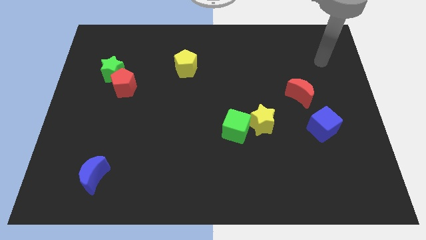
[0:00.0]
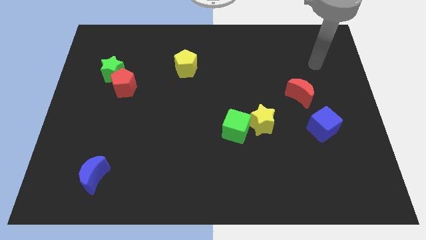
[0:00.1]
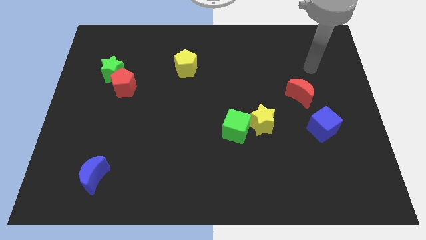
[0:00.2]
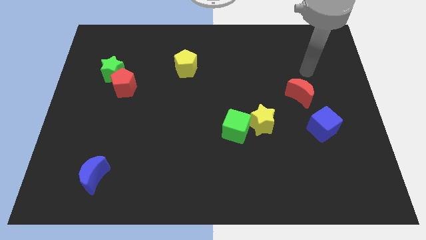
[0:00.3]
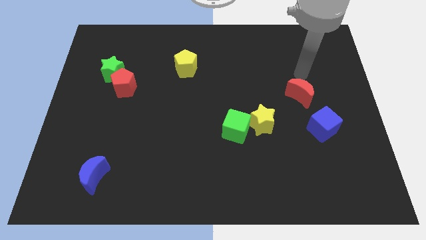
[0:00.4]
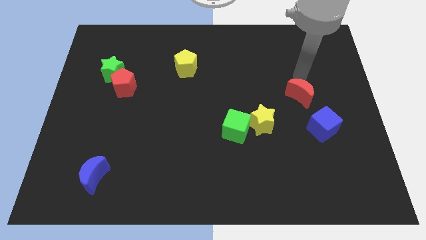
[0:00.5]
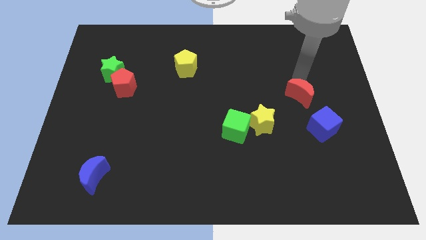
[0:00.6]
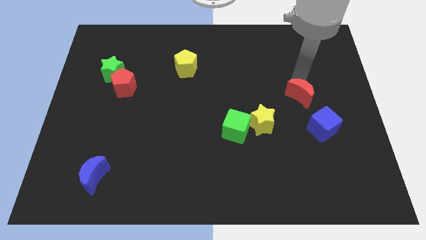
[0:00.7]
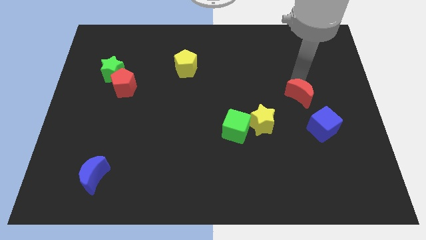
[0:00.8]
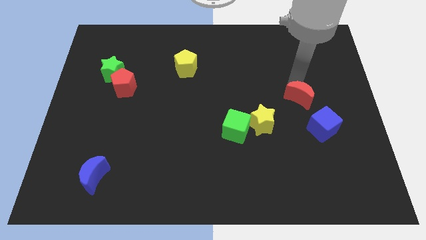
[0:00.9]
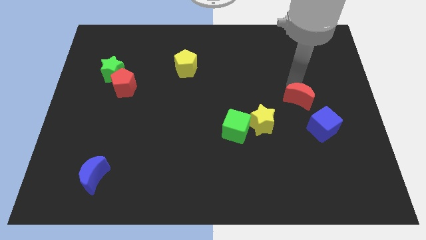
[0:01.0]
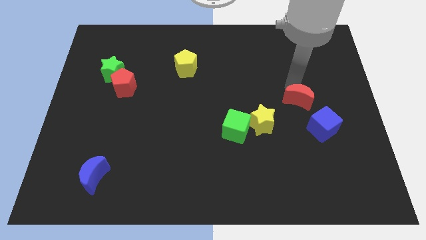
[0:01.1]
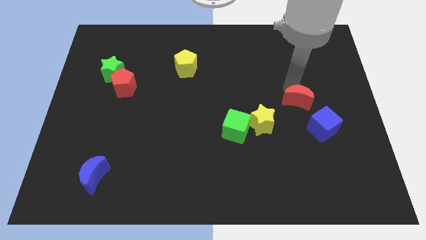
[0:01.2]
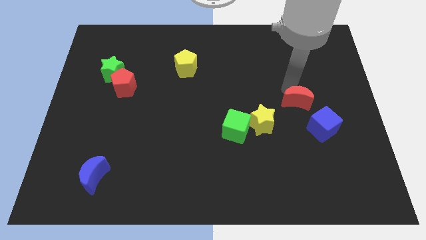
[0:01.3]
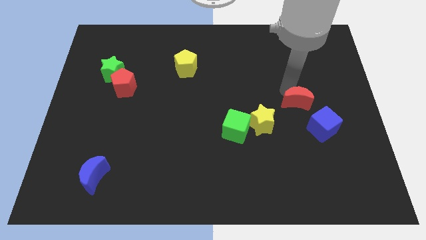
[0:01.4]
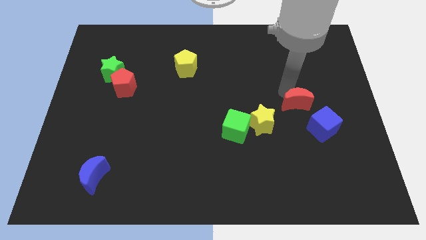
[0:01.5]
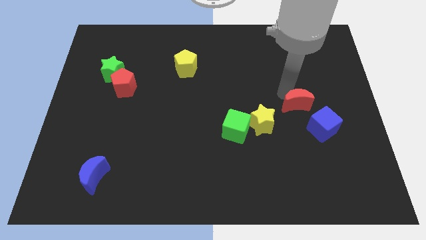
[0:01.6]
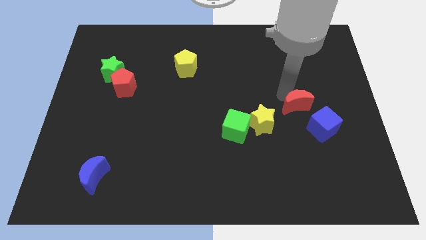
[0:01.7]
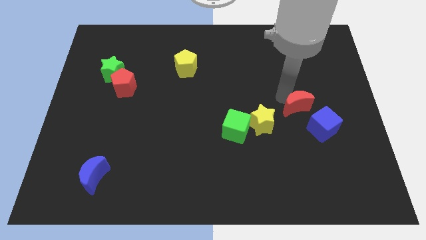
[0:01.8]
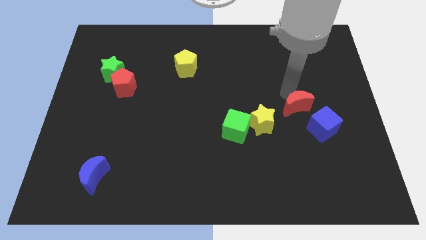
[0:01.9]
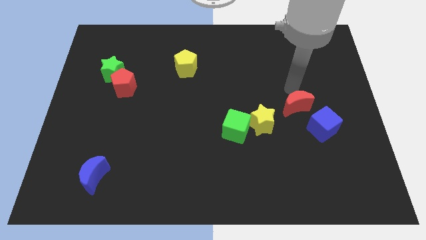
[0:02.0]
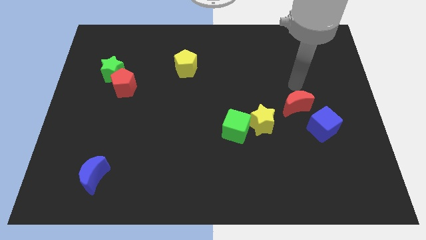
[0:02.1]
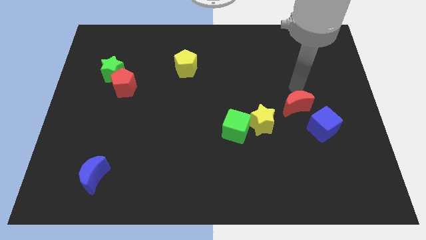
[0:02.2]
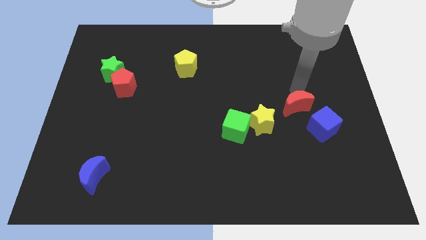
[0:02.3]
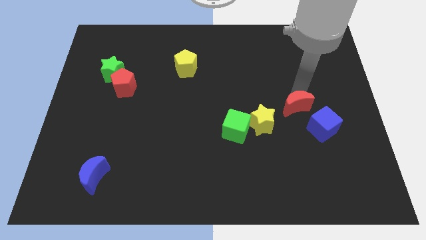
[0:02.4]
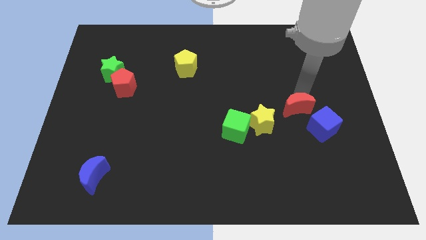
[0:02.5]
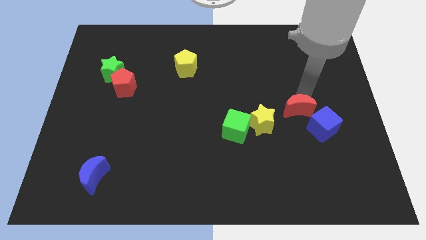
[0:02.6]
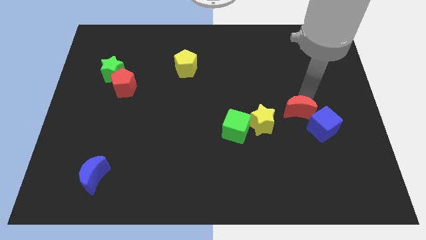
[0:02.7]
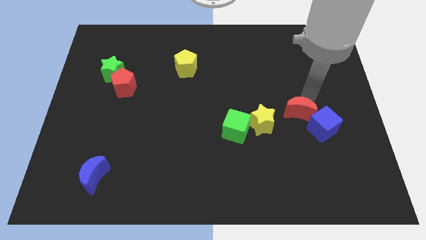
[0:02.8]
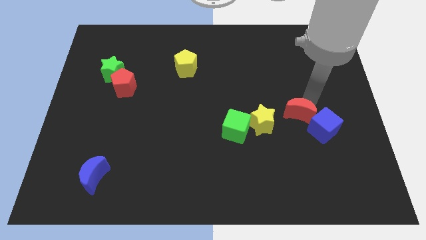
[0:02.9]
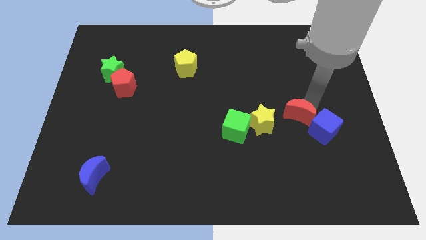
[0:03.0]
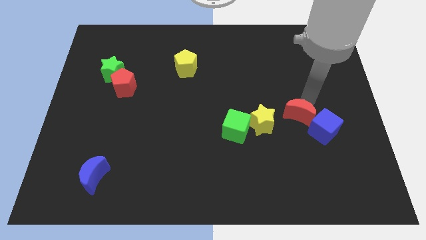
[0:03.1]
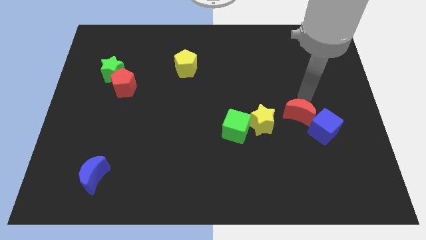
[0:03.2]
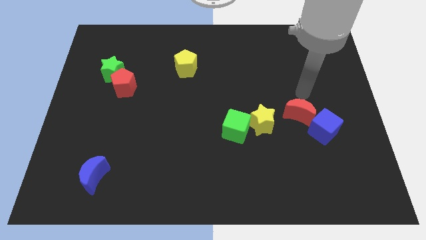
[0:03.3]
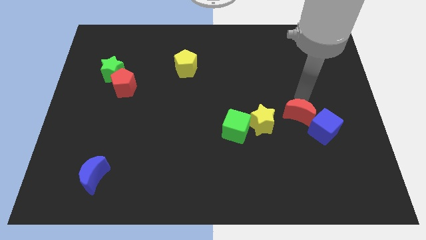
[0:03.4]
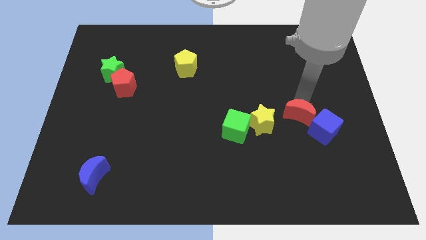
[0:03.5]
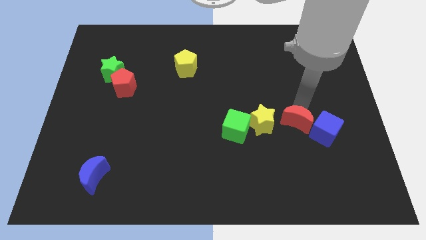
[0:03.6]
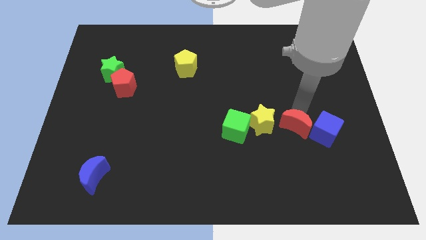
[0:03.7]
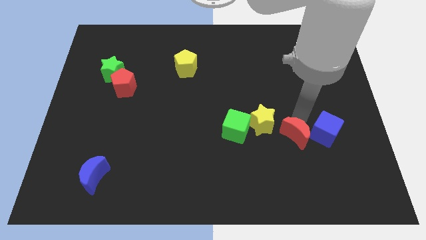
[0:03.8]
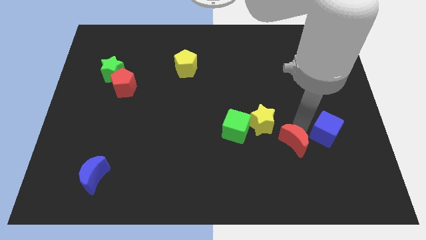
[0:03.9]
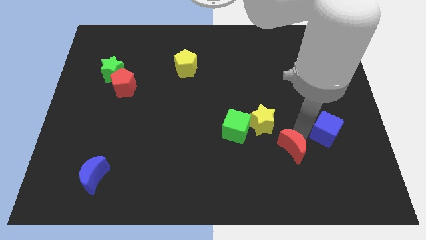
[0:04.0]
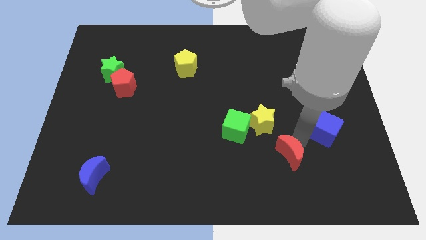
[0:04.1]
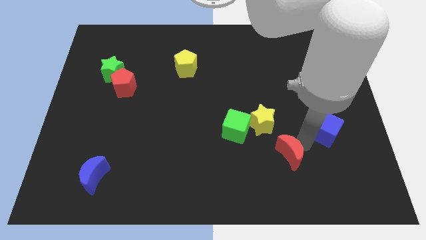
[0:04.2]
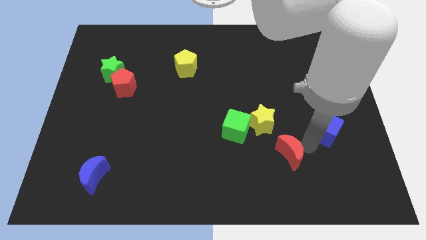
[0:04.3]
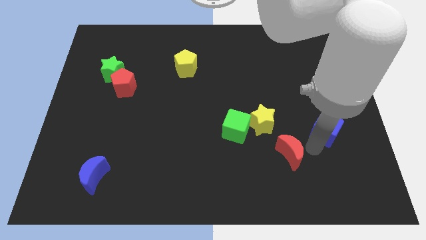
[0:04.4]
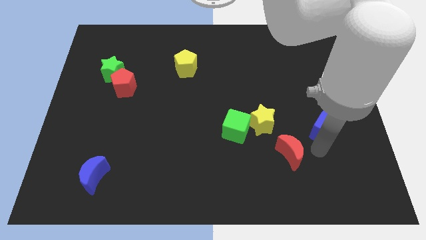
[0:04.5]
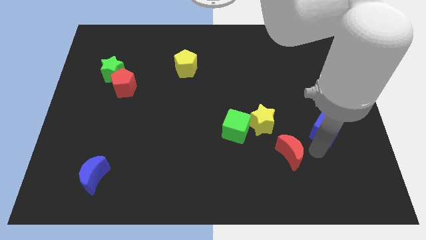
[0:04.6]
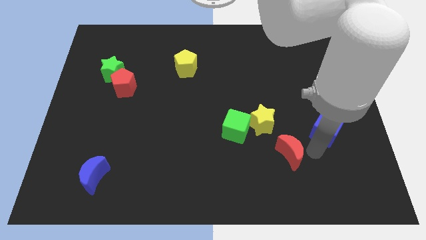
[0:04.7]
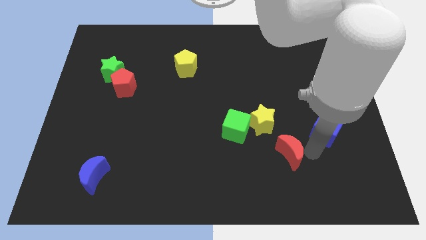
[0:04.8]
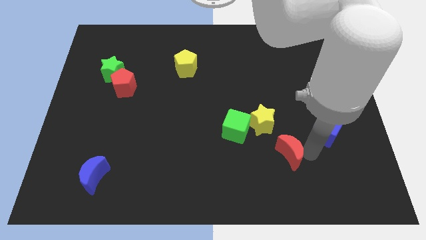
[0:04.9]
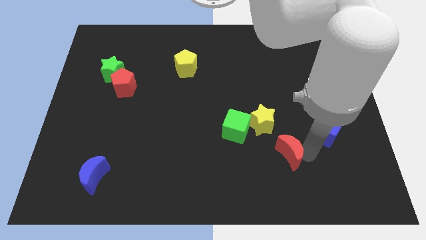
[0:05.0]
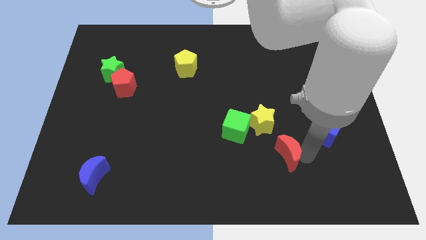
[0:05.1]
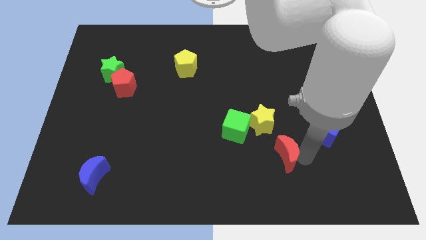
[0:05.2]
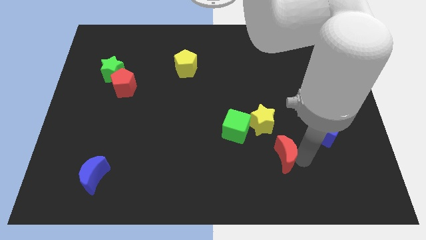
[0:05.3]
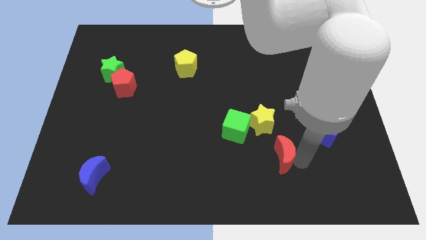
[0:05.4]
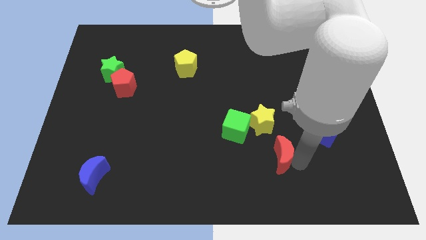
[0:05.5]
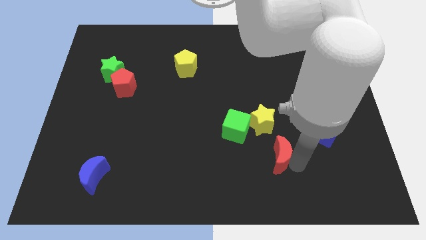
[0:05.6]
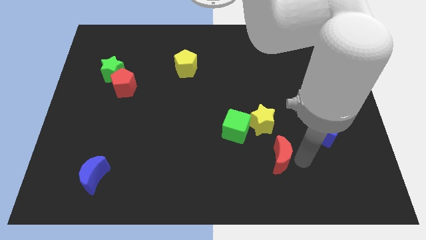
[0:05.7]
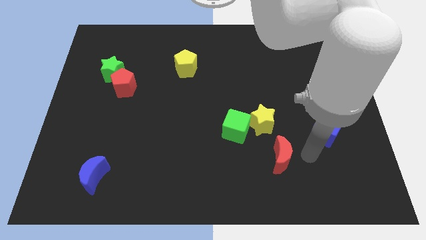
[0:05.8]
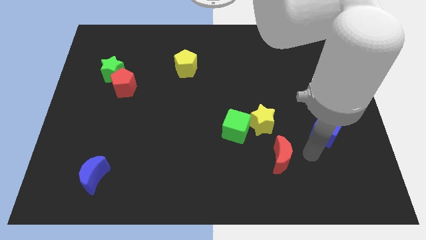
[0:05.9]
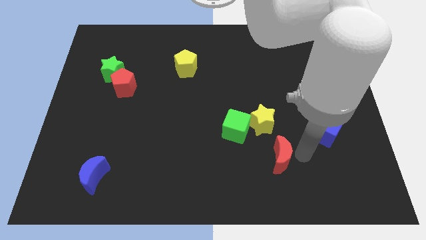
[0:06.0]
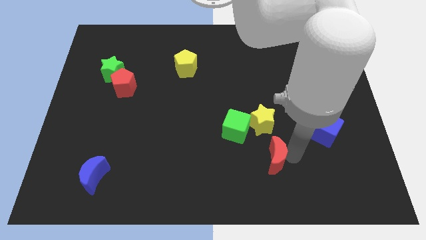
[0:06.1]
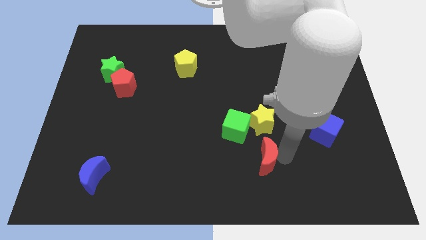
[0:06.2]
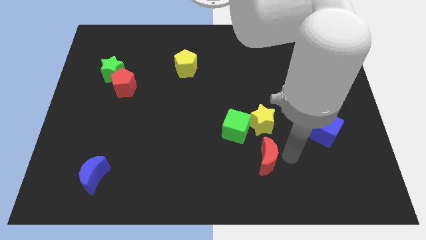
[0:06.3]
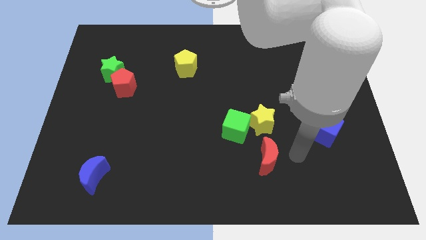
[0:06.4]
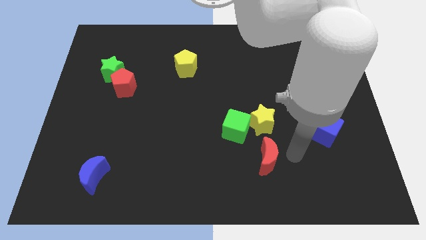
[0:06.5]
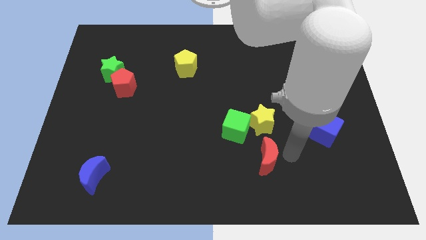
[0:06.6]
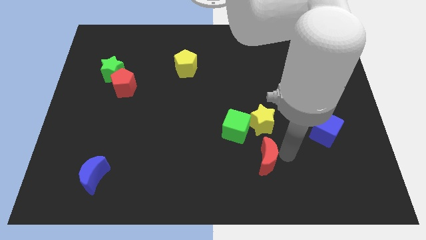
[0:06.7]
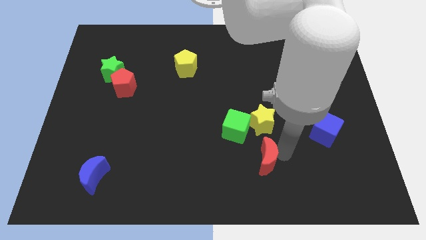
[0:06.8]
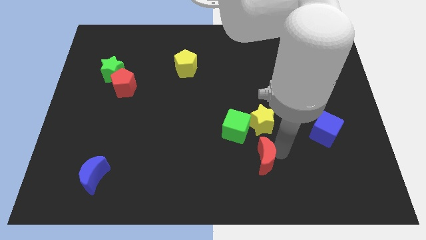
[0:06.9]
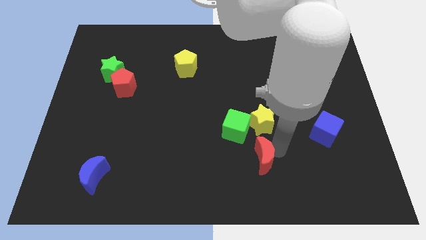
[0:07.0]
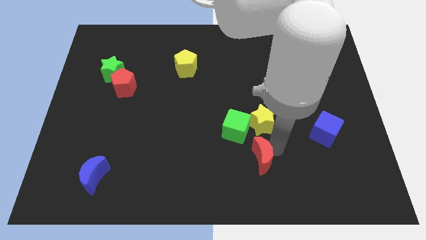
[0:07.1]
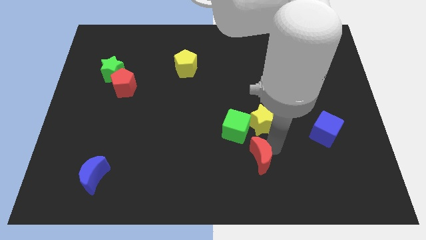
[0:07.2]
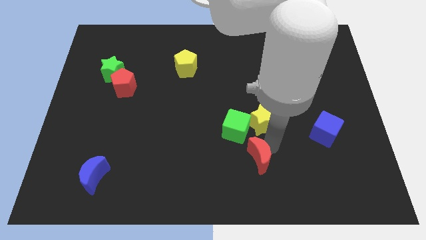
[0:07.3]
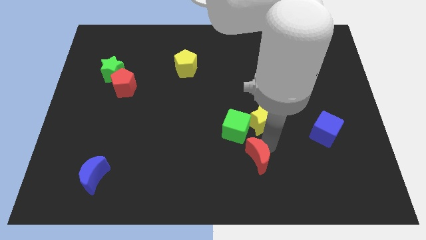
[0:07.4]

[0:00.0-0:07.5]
move the red moon down and left diagonally

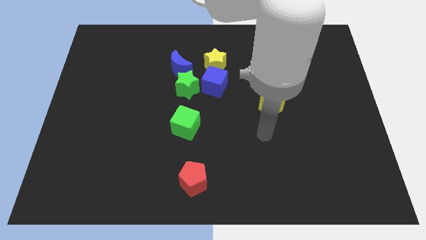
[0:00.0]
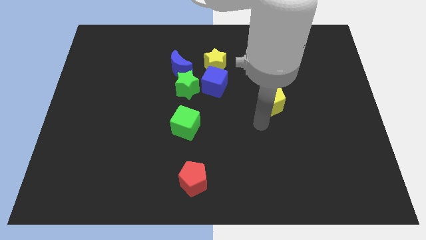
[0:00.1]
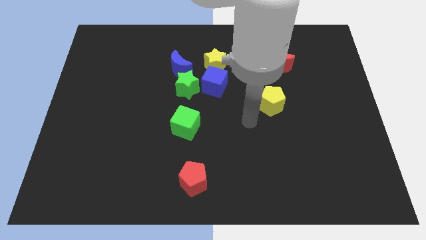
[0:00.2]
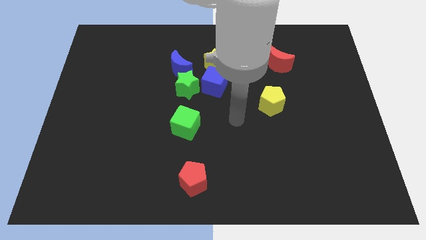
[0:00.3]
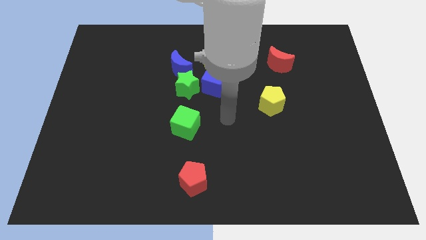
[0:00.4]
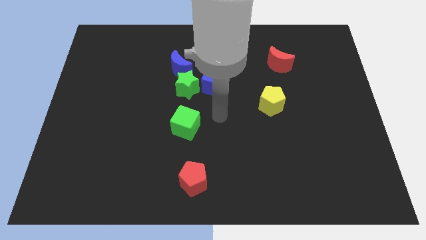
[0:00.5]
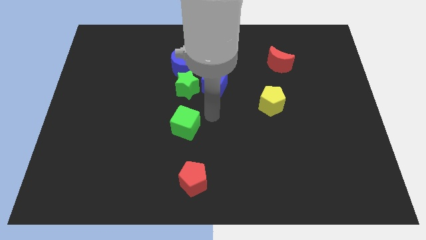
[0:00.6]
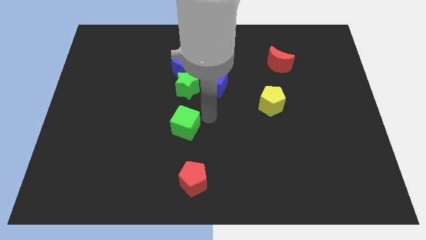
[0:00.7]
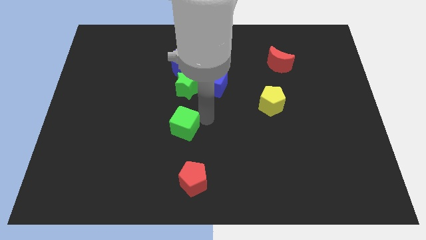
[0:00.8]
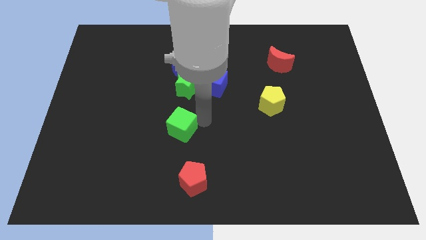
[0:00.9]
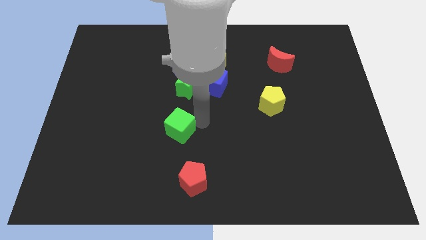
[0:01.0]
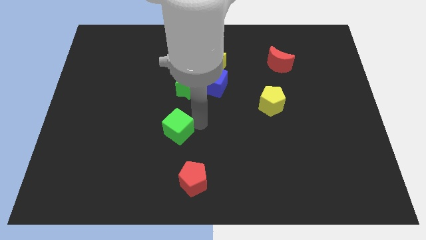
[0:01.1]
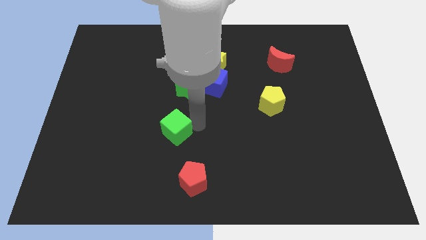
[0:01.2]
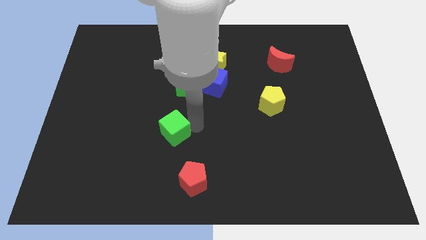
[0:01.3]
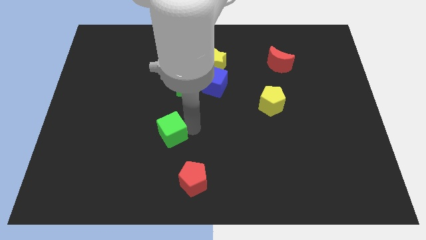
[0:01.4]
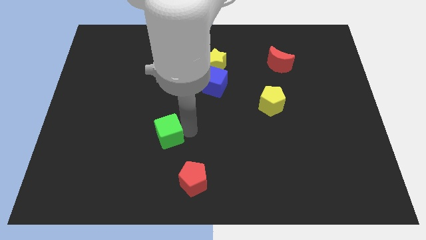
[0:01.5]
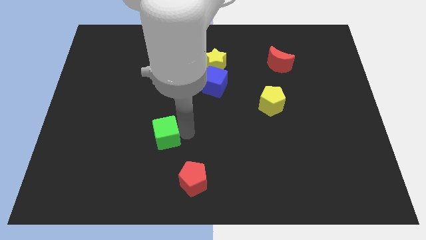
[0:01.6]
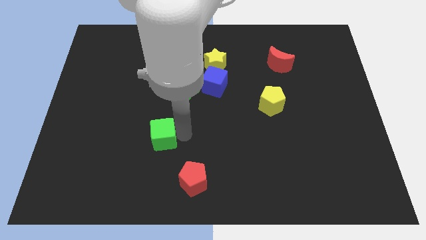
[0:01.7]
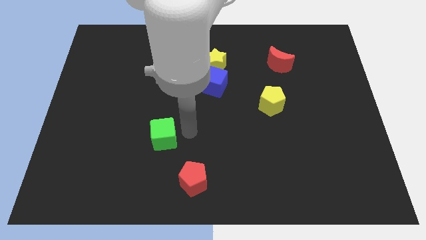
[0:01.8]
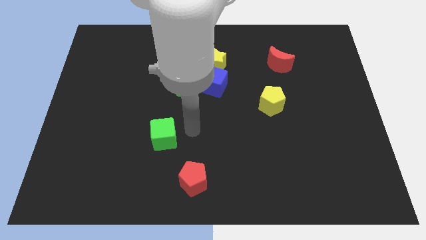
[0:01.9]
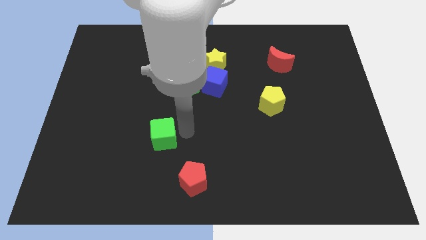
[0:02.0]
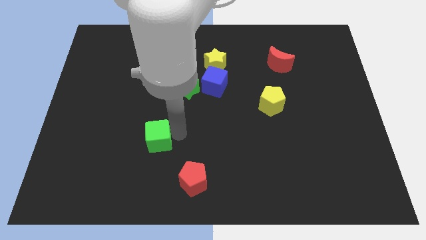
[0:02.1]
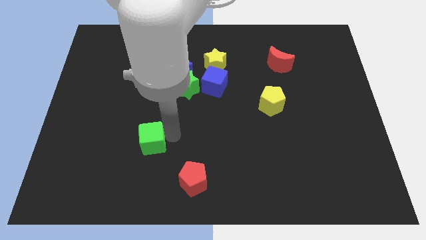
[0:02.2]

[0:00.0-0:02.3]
slide the green cube somewhat downwards and left diagonally
